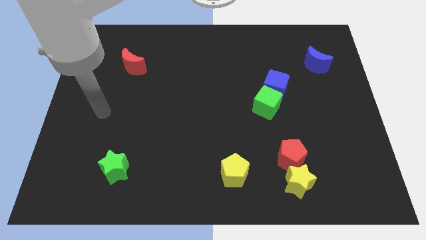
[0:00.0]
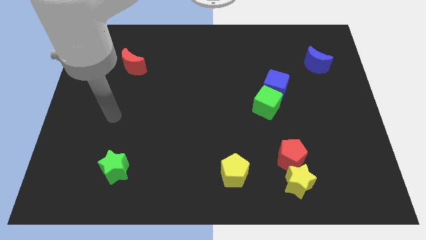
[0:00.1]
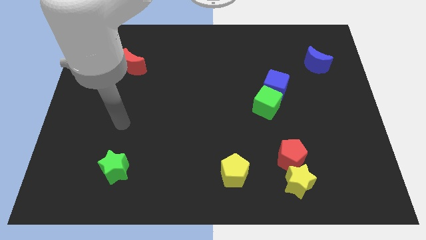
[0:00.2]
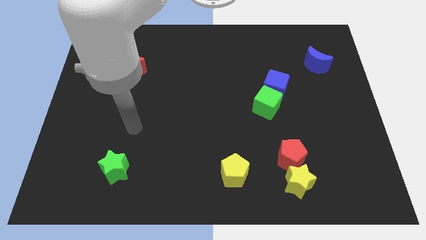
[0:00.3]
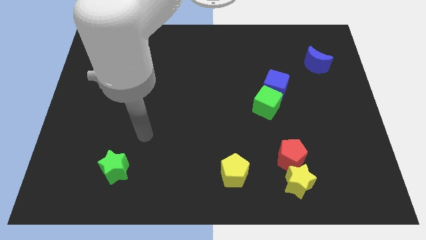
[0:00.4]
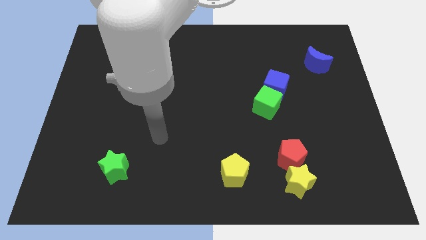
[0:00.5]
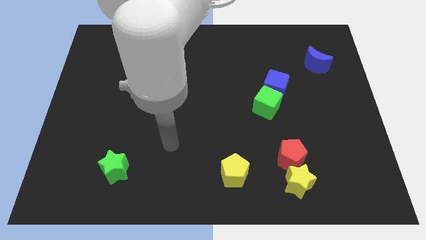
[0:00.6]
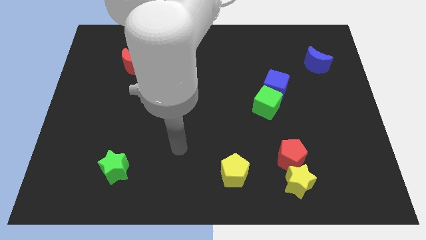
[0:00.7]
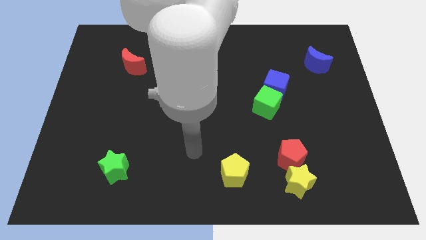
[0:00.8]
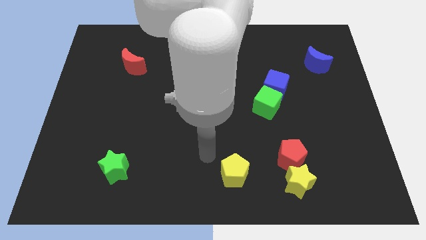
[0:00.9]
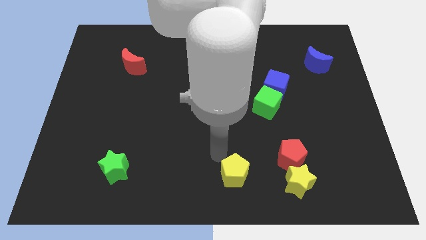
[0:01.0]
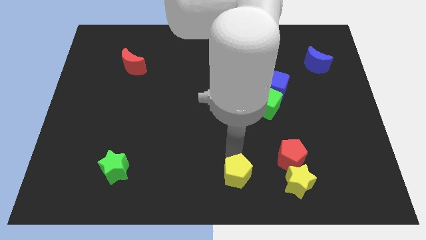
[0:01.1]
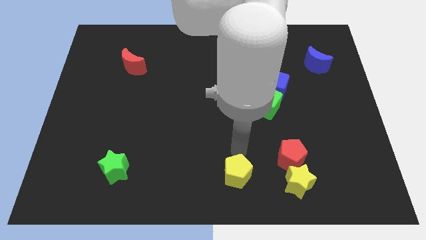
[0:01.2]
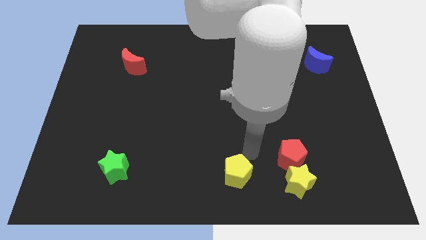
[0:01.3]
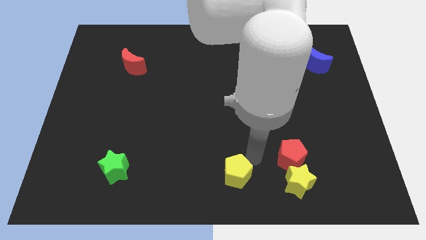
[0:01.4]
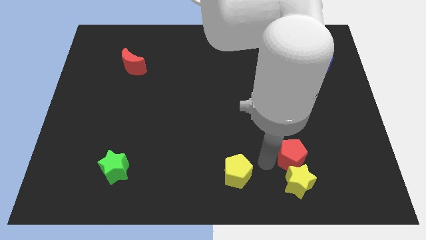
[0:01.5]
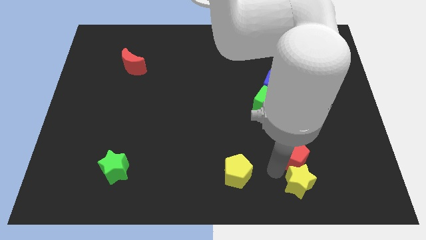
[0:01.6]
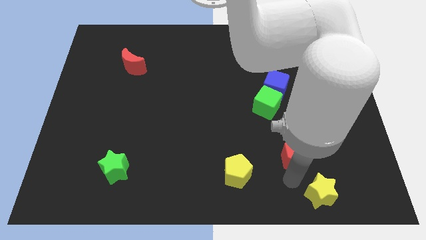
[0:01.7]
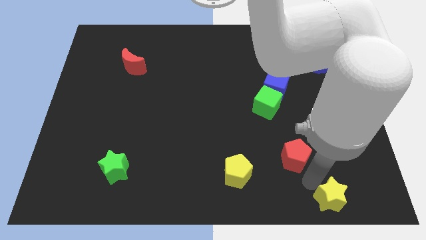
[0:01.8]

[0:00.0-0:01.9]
pull the red pentagon apart from the yellow star

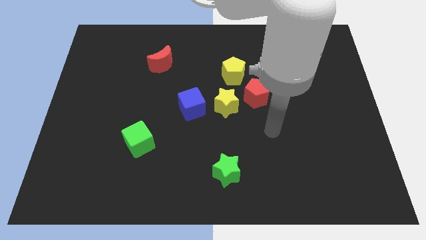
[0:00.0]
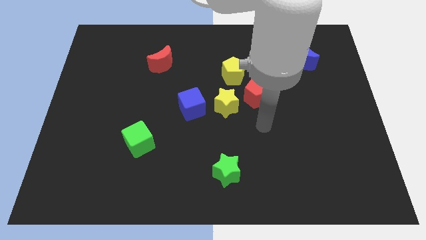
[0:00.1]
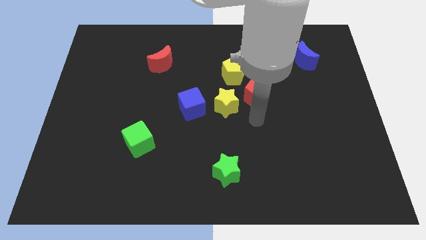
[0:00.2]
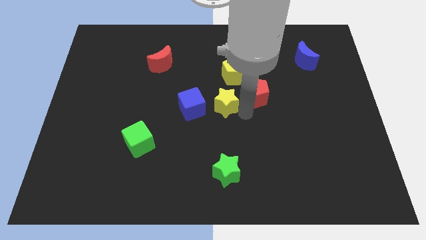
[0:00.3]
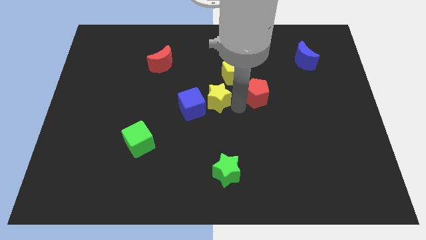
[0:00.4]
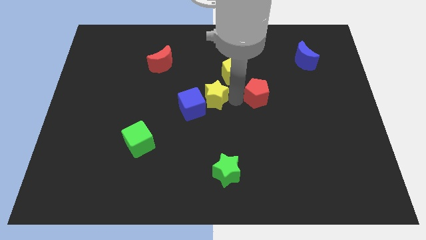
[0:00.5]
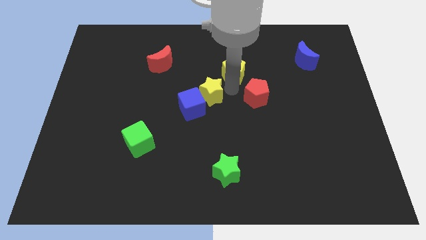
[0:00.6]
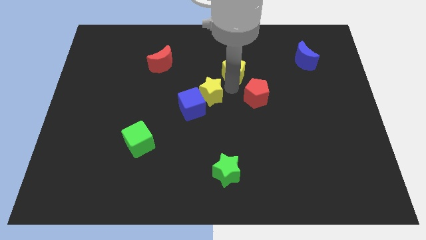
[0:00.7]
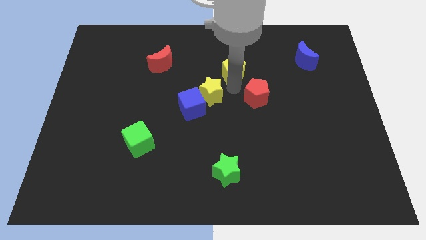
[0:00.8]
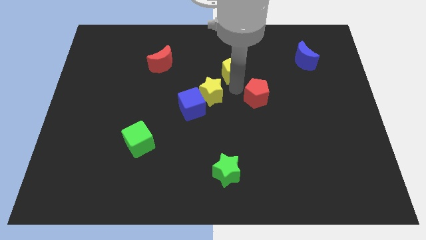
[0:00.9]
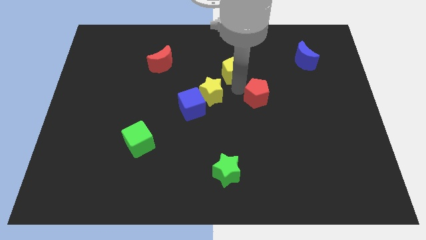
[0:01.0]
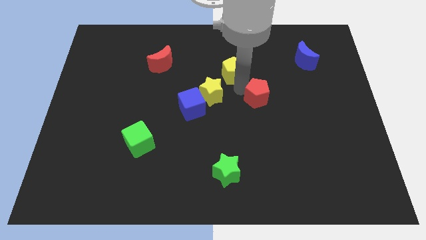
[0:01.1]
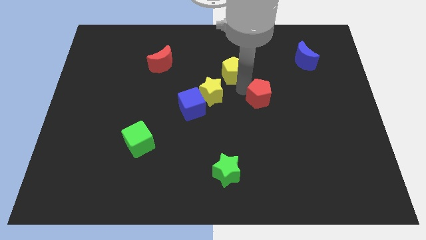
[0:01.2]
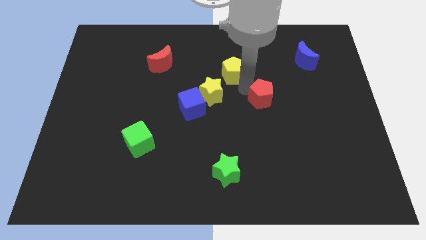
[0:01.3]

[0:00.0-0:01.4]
move the red pentagon away from the yellow star and yellow pentagon

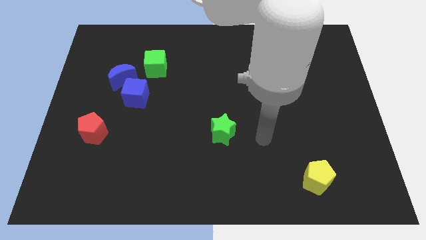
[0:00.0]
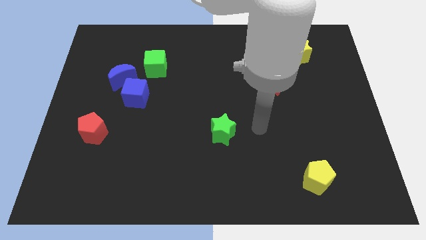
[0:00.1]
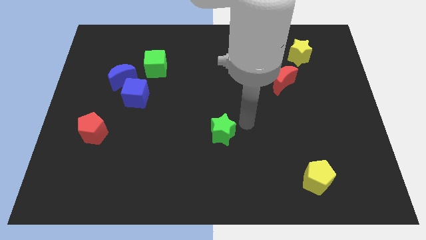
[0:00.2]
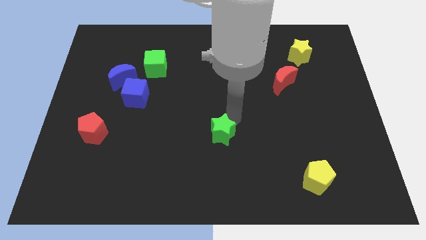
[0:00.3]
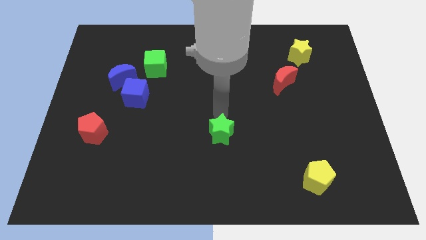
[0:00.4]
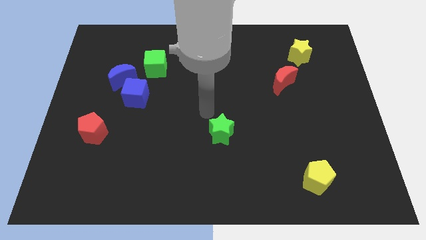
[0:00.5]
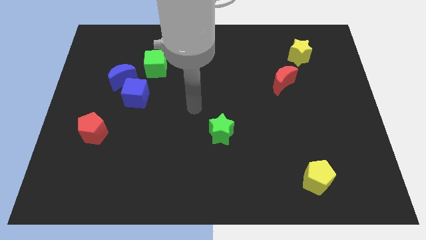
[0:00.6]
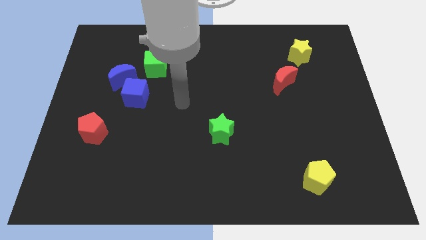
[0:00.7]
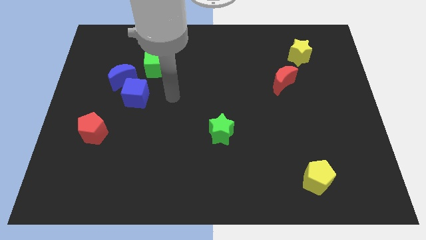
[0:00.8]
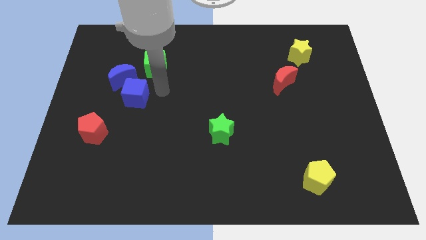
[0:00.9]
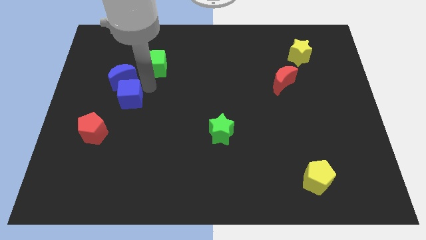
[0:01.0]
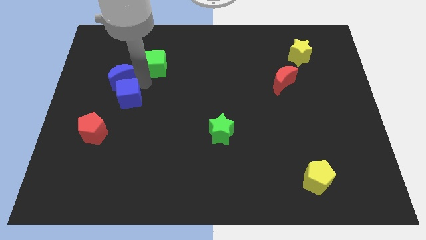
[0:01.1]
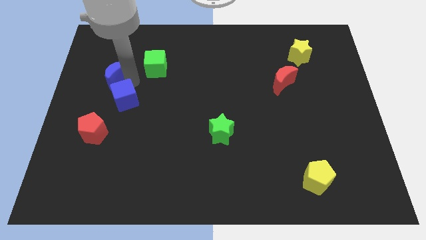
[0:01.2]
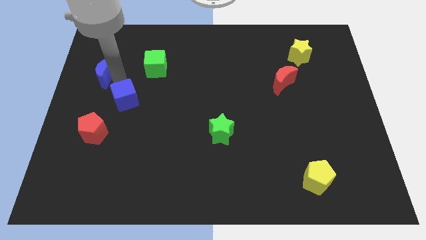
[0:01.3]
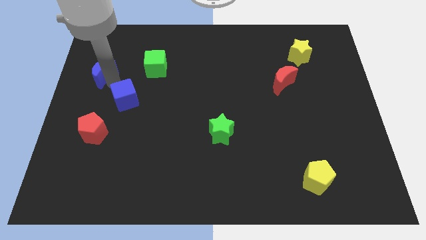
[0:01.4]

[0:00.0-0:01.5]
separate the blue cube from the blue moon

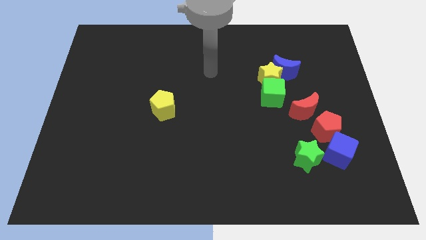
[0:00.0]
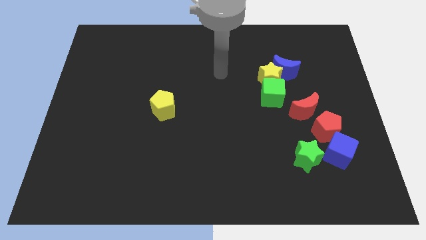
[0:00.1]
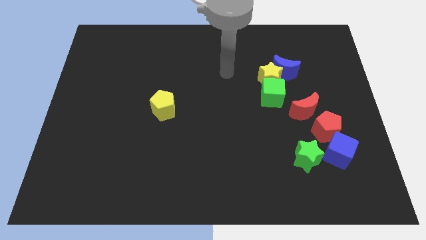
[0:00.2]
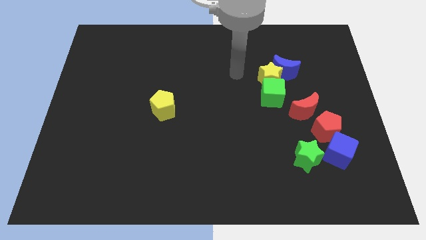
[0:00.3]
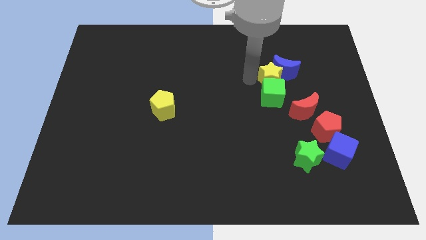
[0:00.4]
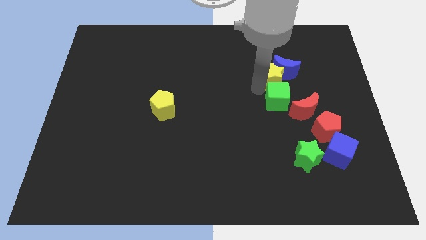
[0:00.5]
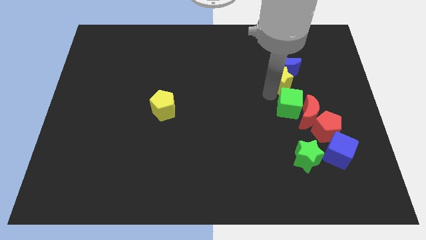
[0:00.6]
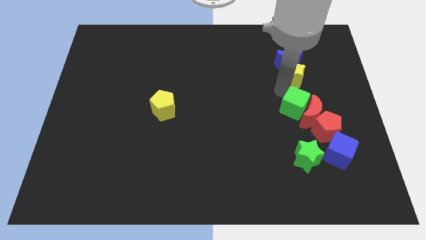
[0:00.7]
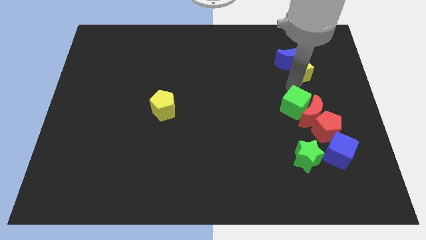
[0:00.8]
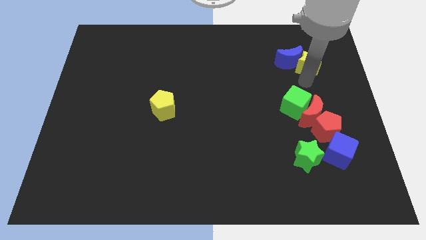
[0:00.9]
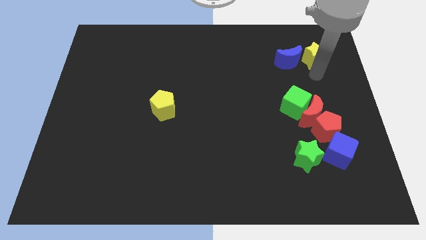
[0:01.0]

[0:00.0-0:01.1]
separate the yellow star from the blue moon and green cube

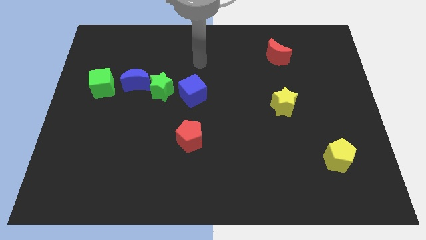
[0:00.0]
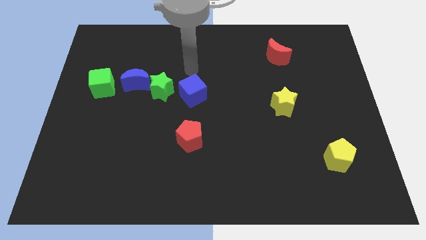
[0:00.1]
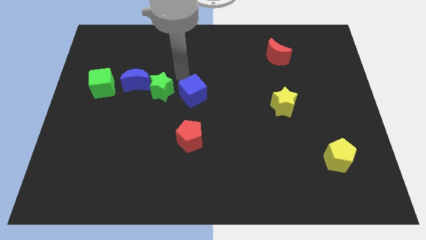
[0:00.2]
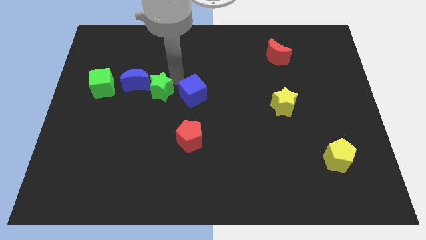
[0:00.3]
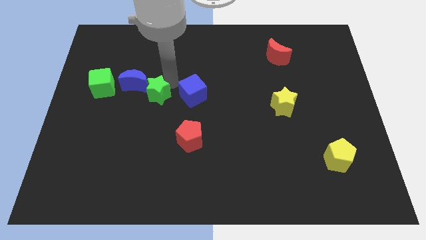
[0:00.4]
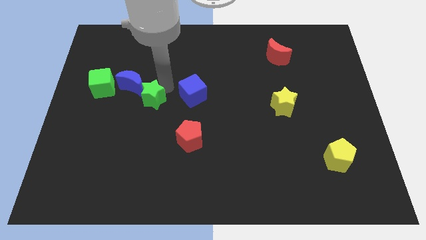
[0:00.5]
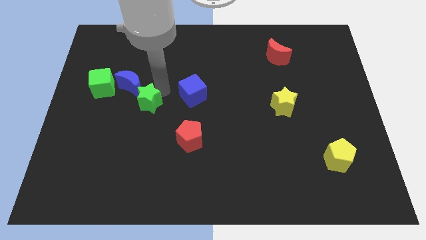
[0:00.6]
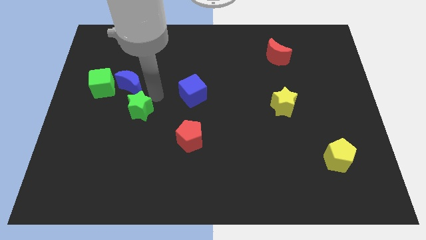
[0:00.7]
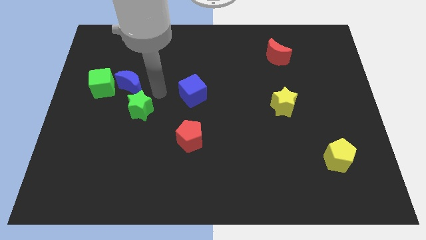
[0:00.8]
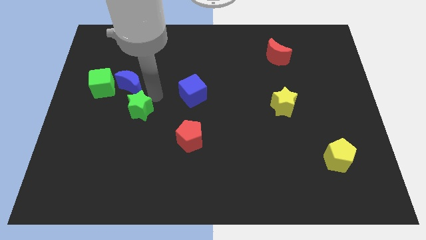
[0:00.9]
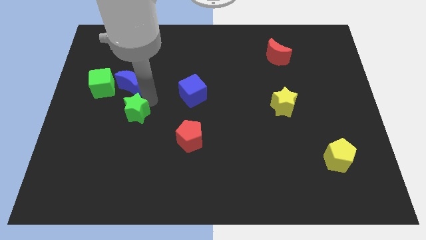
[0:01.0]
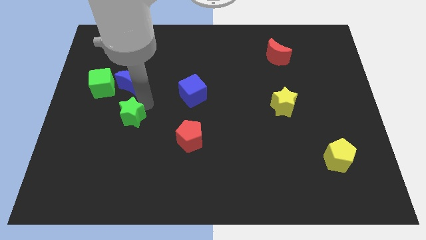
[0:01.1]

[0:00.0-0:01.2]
pull the green star apart from the blue moon and blue cube

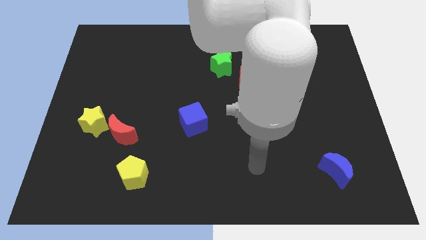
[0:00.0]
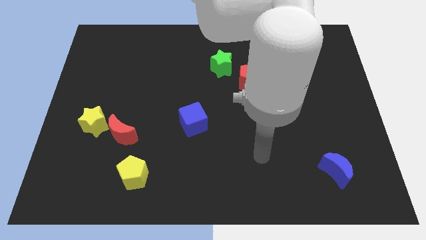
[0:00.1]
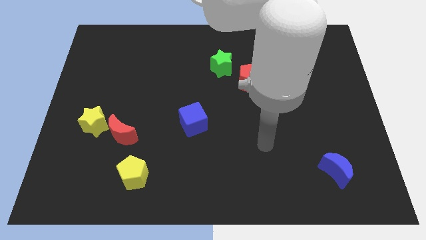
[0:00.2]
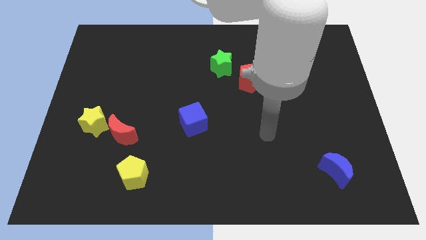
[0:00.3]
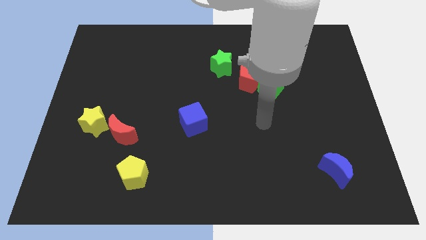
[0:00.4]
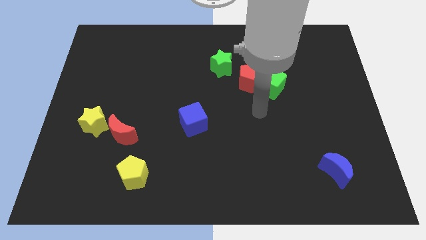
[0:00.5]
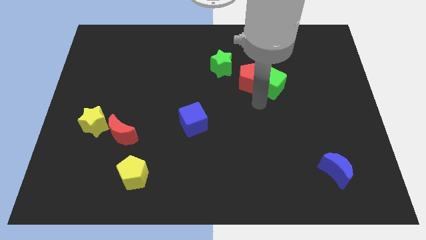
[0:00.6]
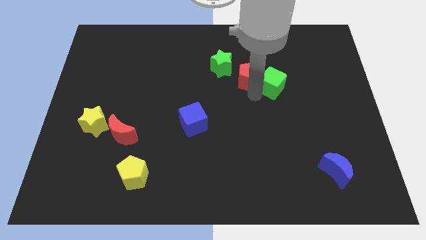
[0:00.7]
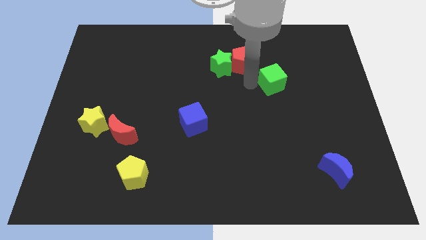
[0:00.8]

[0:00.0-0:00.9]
move the green cube away from the red pentagon

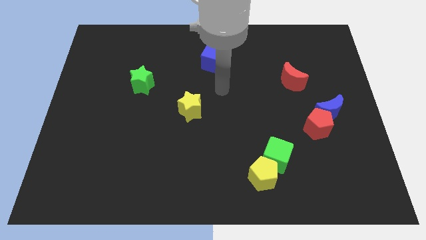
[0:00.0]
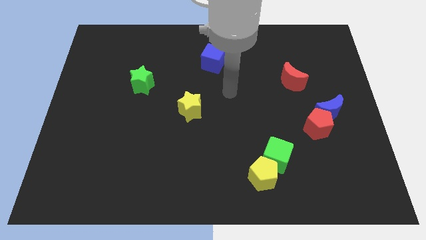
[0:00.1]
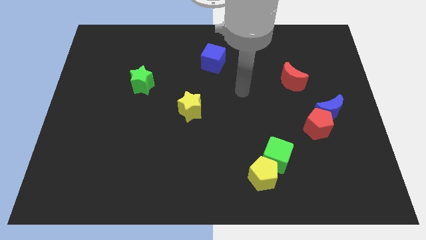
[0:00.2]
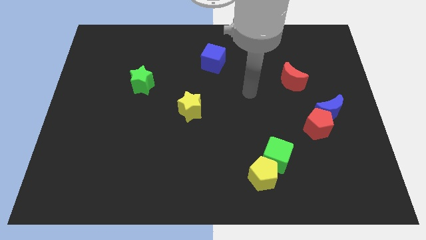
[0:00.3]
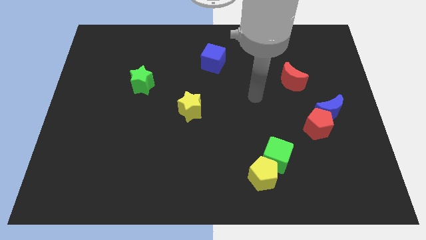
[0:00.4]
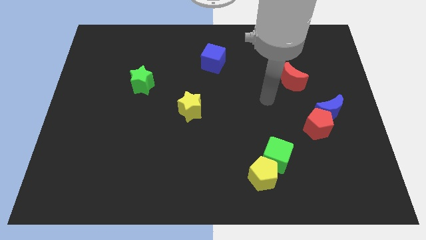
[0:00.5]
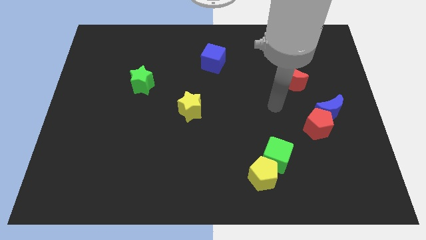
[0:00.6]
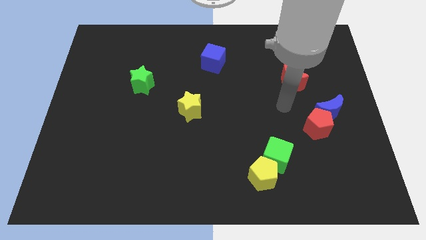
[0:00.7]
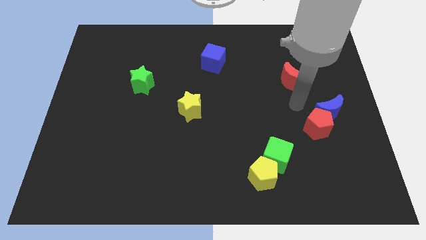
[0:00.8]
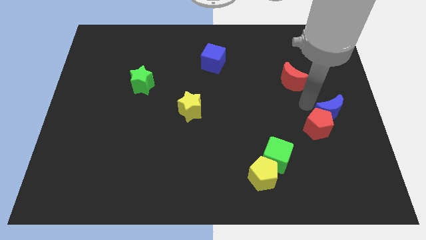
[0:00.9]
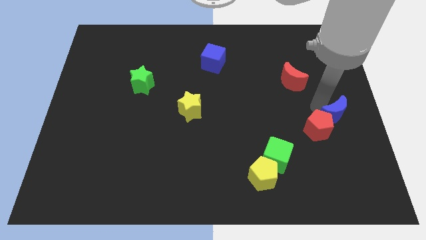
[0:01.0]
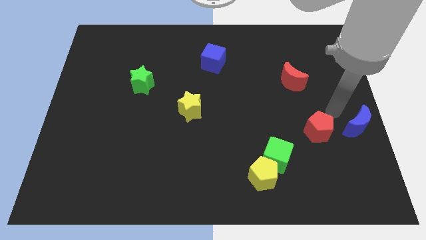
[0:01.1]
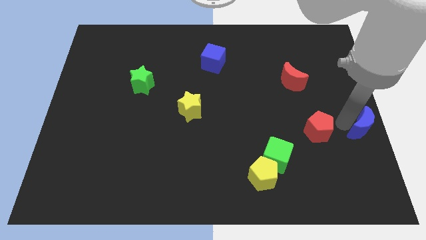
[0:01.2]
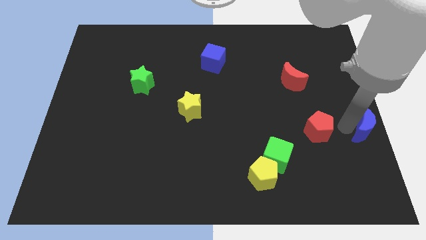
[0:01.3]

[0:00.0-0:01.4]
pull the red pentagon apart from the blue moon
